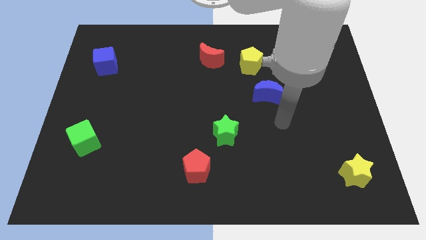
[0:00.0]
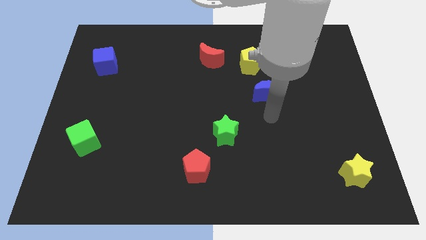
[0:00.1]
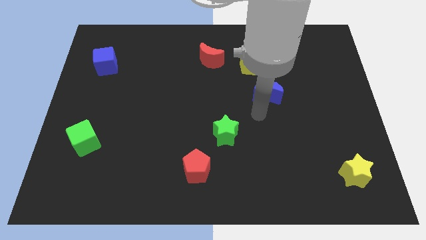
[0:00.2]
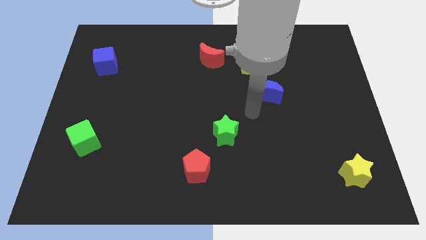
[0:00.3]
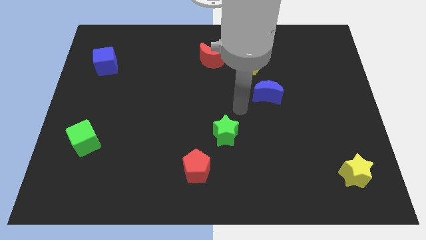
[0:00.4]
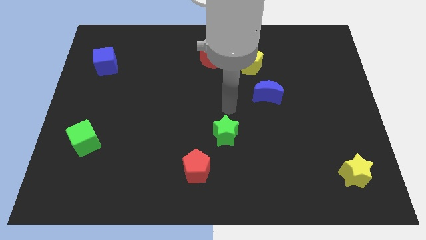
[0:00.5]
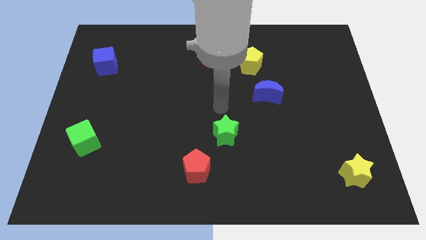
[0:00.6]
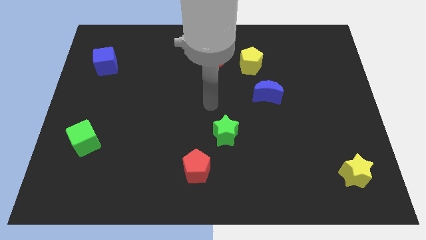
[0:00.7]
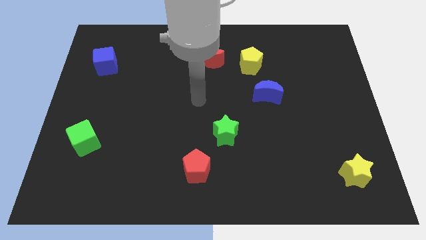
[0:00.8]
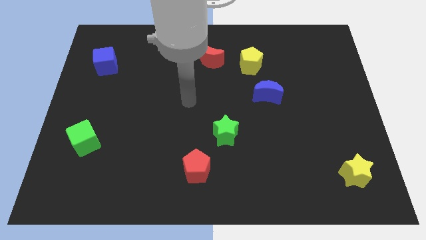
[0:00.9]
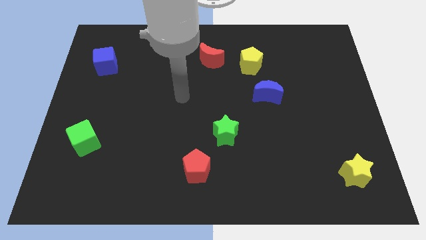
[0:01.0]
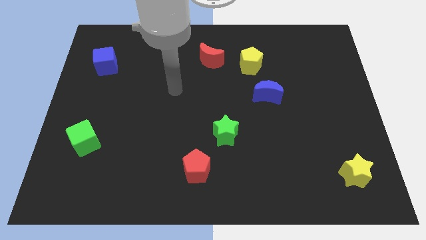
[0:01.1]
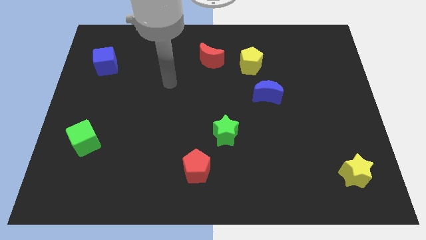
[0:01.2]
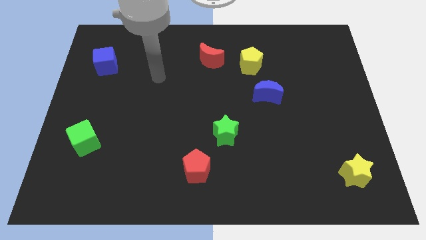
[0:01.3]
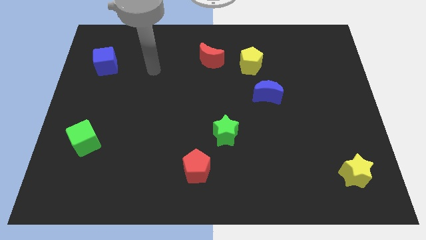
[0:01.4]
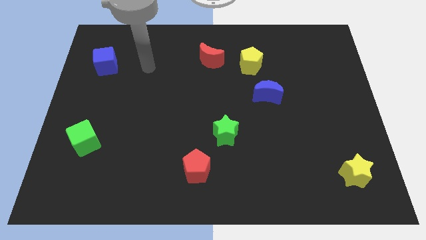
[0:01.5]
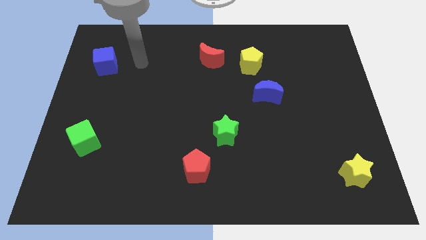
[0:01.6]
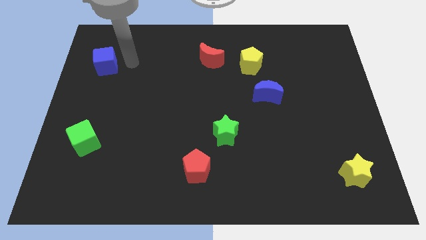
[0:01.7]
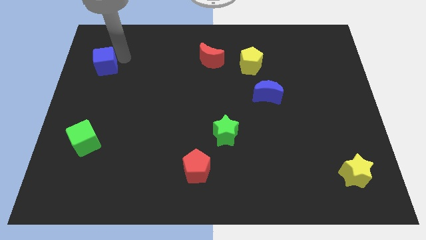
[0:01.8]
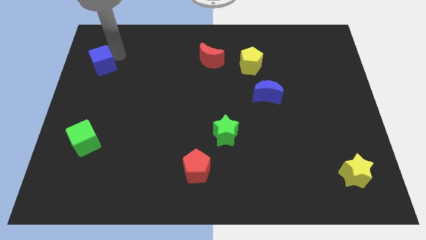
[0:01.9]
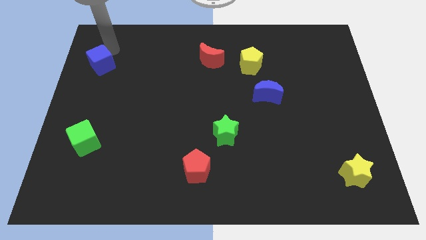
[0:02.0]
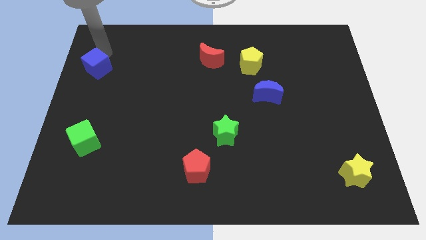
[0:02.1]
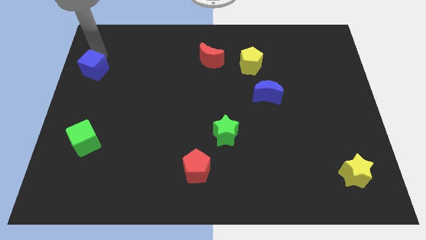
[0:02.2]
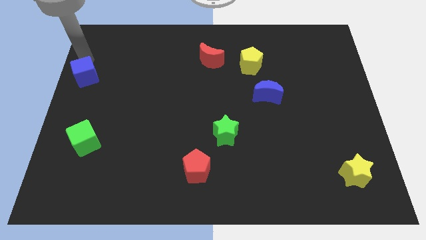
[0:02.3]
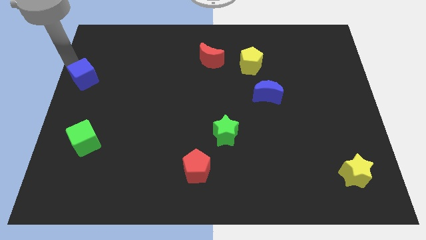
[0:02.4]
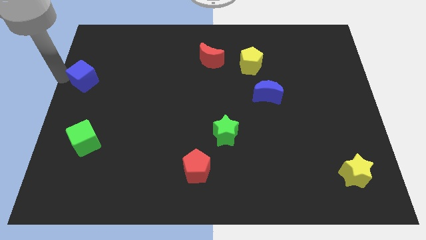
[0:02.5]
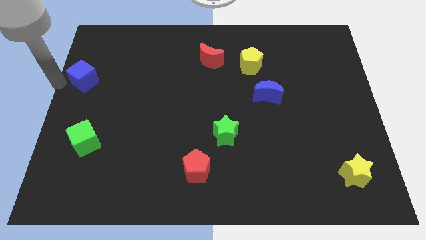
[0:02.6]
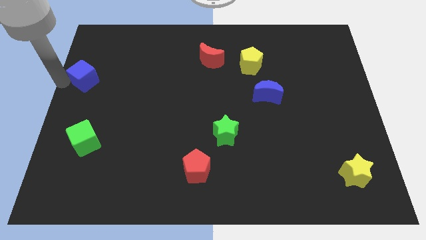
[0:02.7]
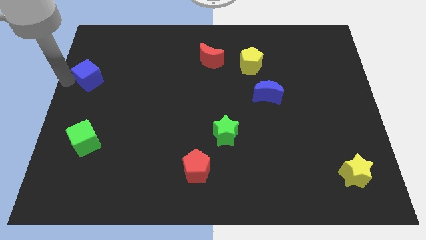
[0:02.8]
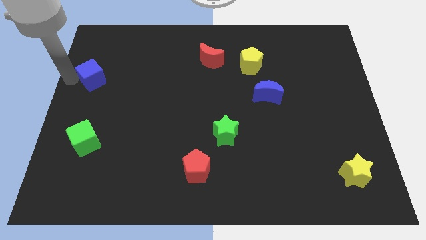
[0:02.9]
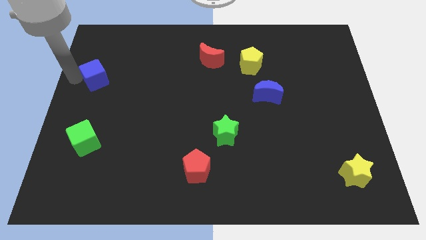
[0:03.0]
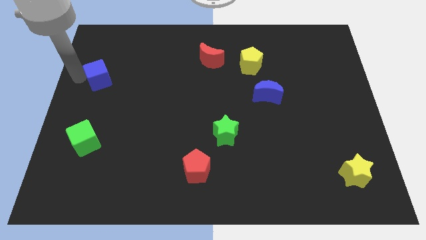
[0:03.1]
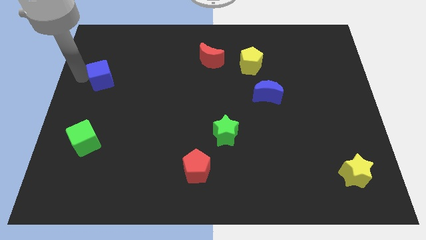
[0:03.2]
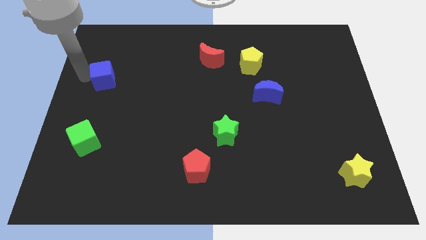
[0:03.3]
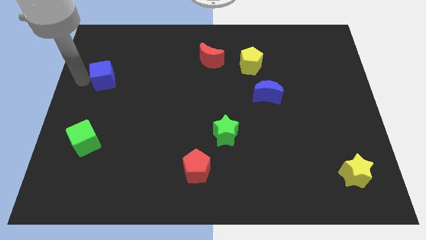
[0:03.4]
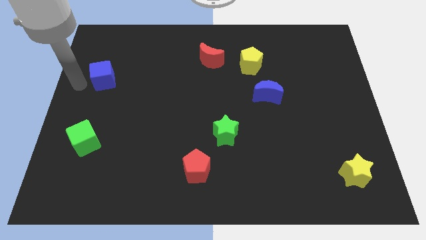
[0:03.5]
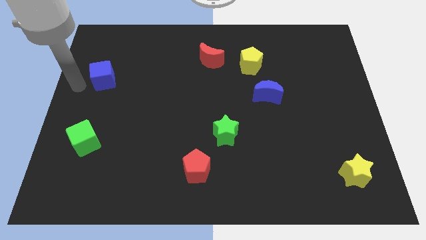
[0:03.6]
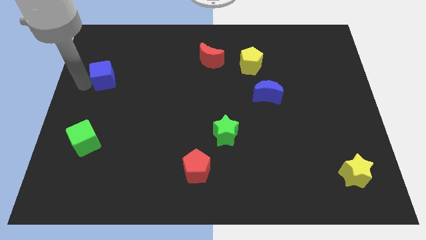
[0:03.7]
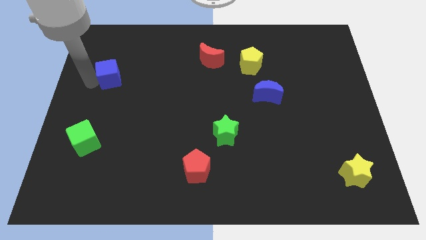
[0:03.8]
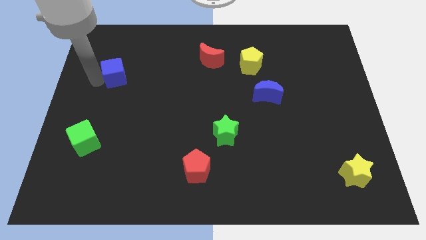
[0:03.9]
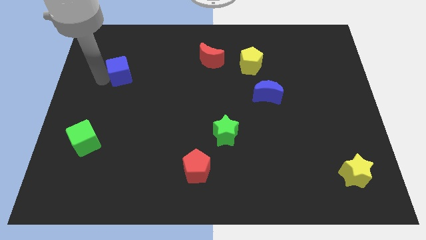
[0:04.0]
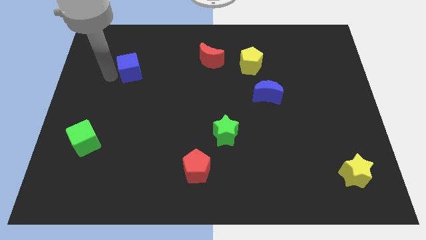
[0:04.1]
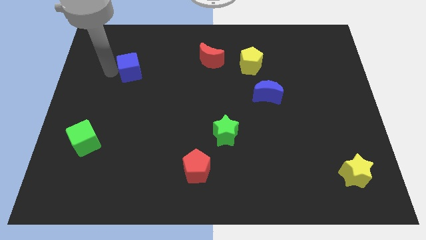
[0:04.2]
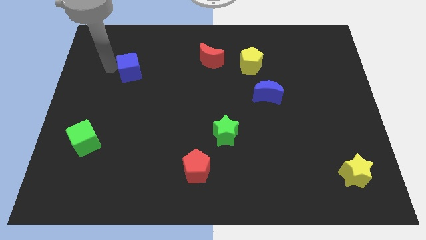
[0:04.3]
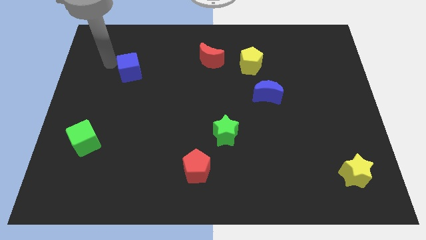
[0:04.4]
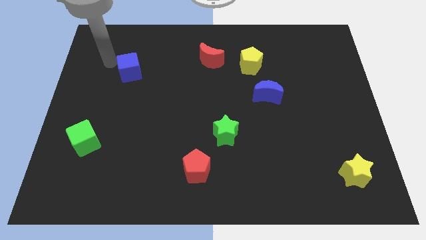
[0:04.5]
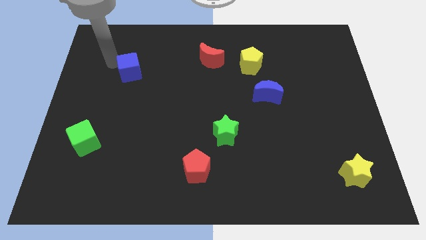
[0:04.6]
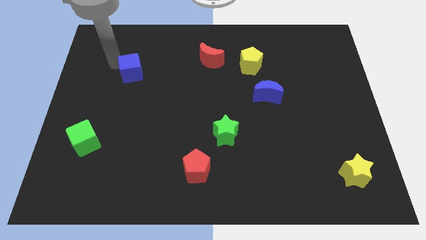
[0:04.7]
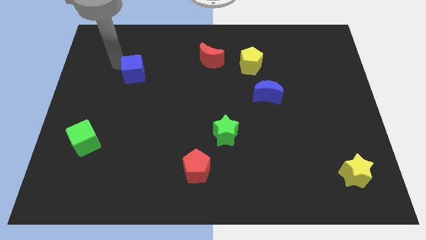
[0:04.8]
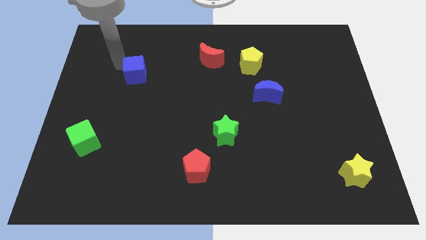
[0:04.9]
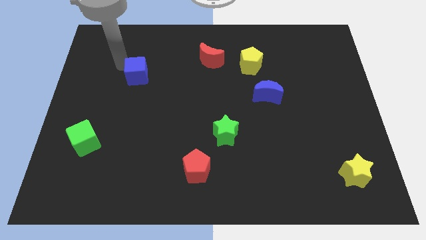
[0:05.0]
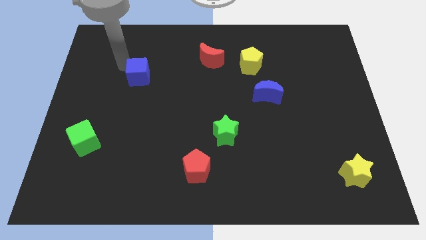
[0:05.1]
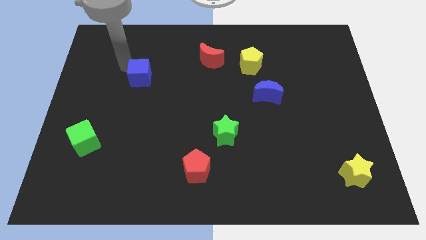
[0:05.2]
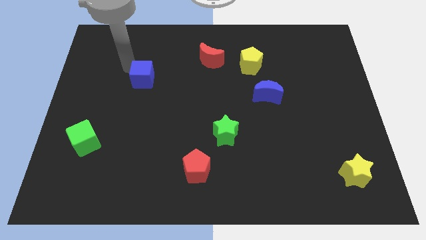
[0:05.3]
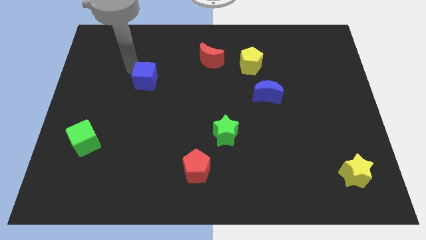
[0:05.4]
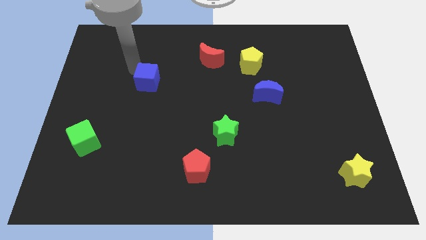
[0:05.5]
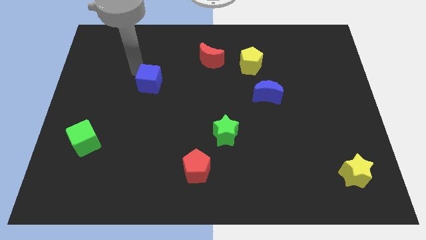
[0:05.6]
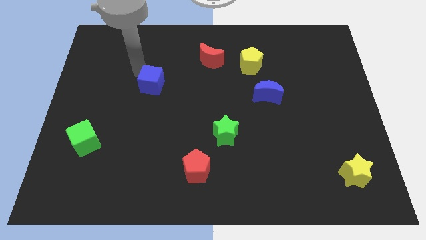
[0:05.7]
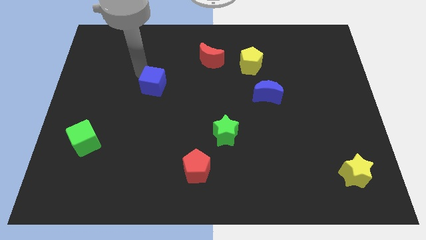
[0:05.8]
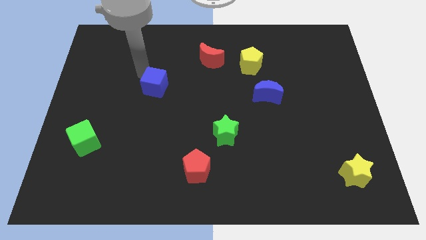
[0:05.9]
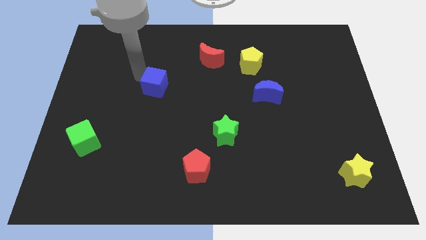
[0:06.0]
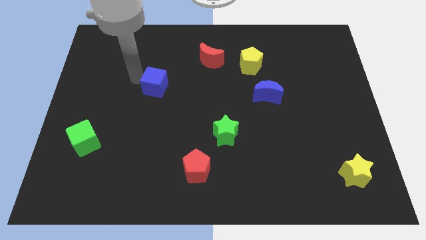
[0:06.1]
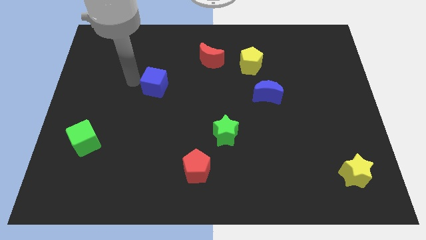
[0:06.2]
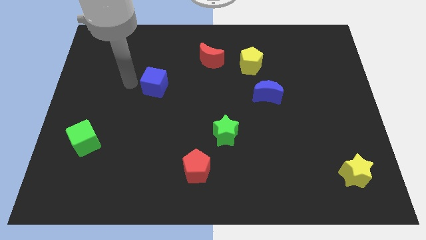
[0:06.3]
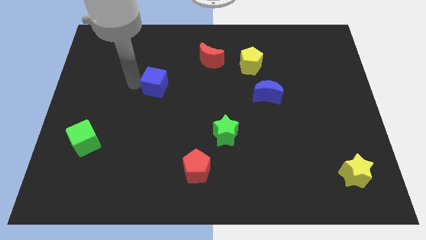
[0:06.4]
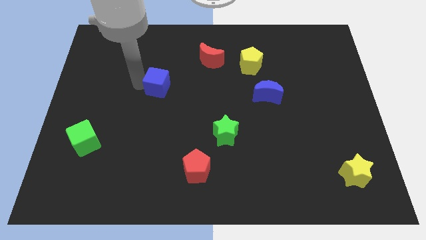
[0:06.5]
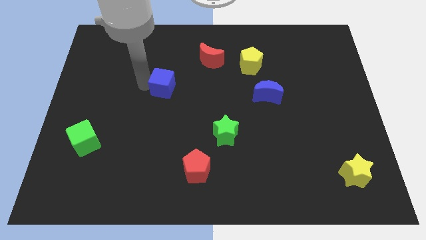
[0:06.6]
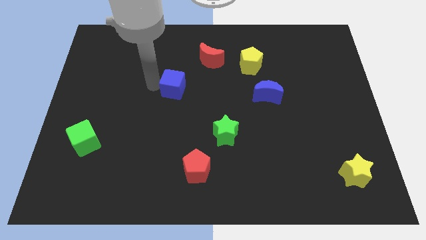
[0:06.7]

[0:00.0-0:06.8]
slide the blue cube to the middle of the board
